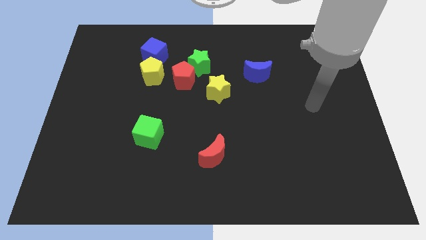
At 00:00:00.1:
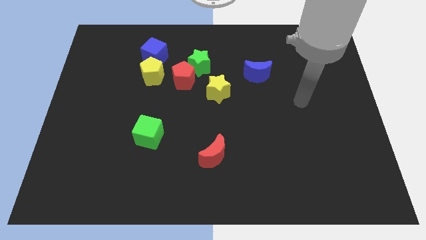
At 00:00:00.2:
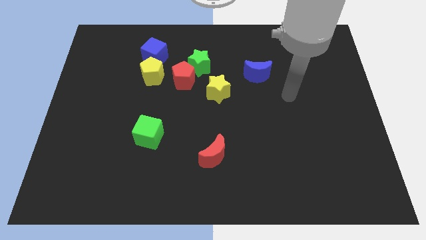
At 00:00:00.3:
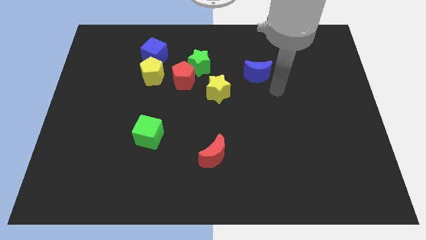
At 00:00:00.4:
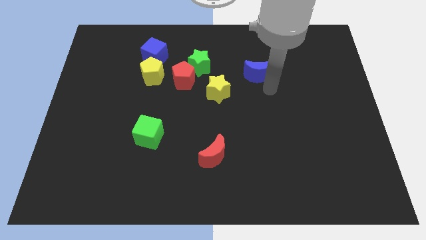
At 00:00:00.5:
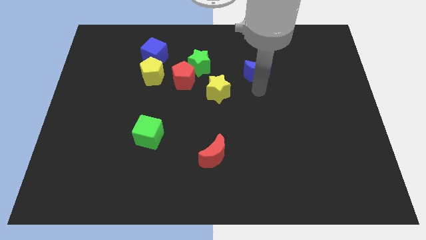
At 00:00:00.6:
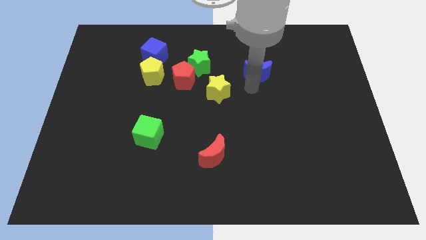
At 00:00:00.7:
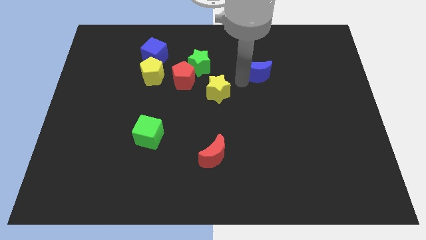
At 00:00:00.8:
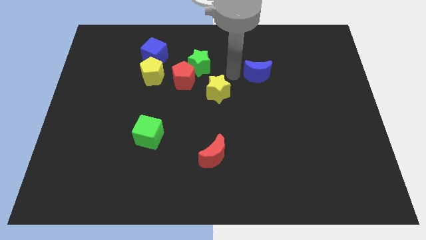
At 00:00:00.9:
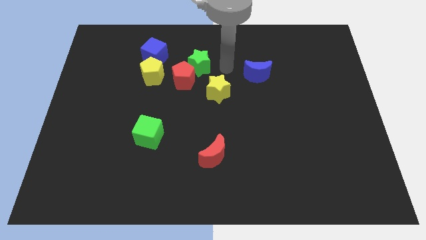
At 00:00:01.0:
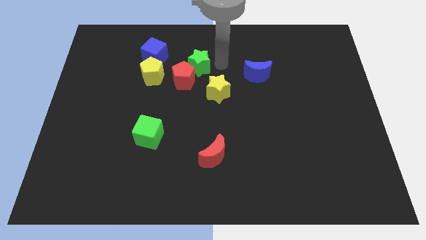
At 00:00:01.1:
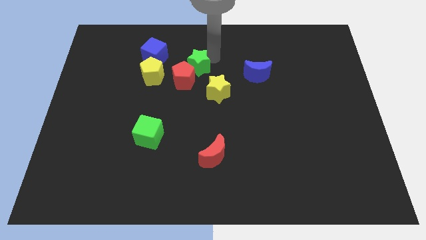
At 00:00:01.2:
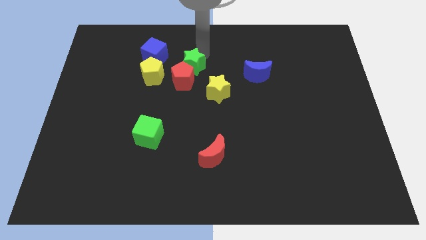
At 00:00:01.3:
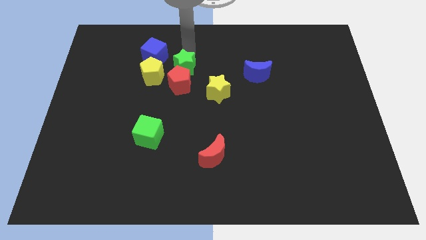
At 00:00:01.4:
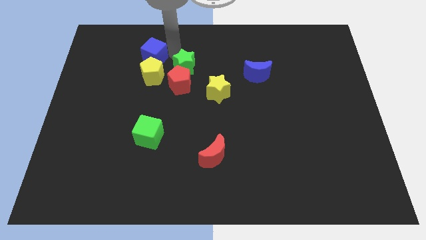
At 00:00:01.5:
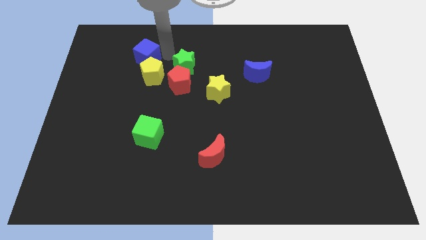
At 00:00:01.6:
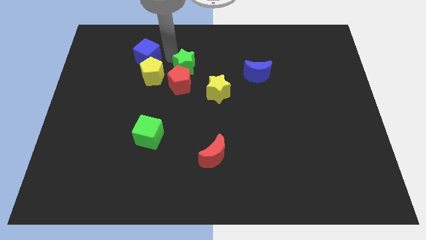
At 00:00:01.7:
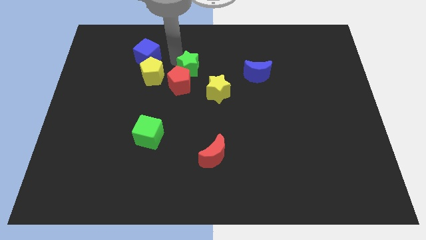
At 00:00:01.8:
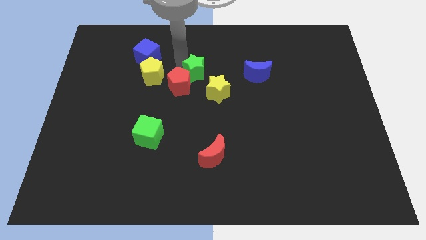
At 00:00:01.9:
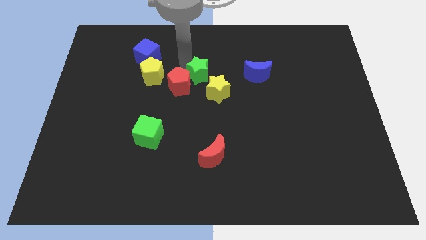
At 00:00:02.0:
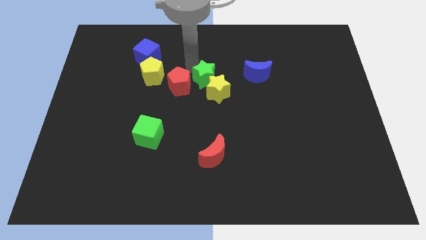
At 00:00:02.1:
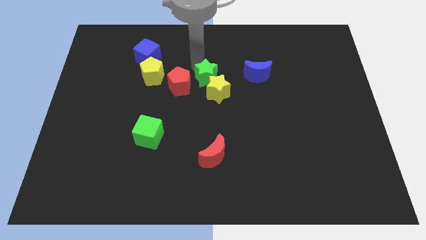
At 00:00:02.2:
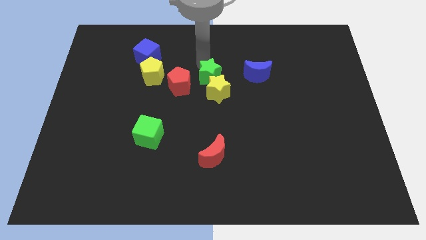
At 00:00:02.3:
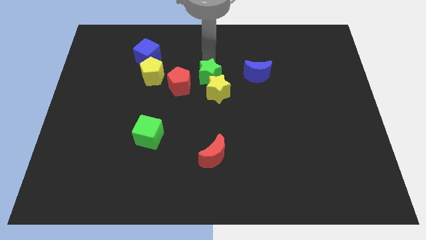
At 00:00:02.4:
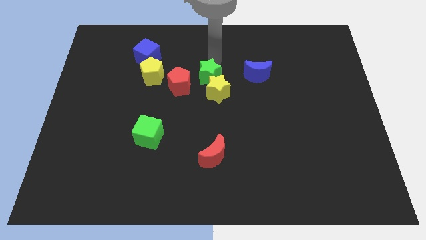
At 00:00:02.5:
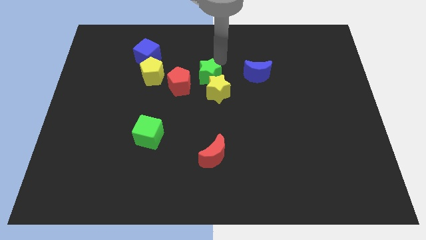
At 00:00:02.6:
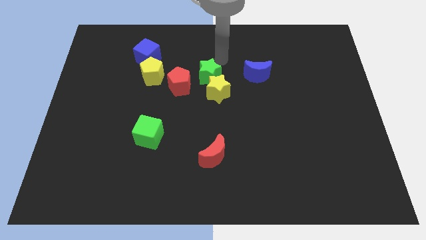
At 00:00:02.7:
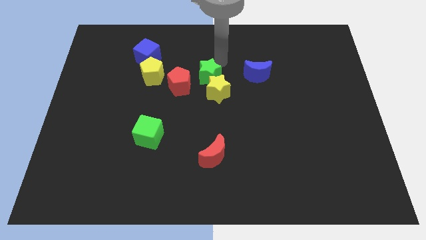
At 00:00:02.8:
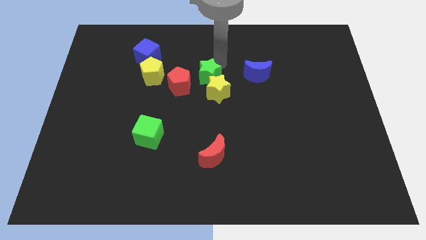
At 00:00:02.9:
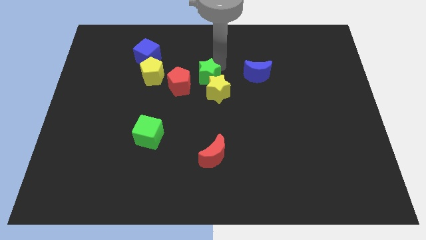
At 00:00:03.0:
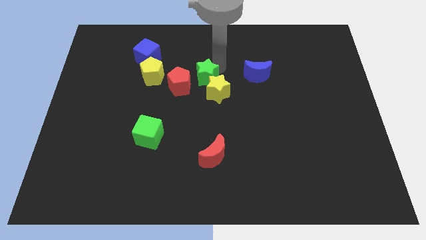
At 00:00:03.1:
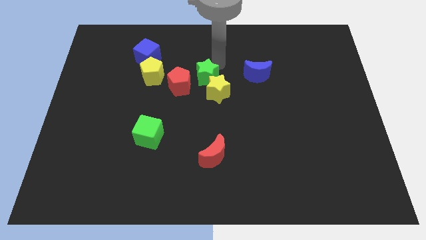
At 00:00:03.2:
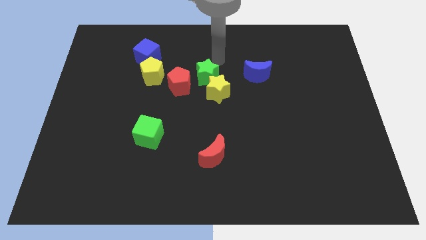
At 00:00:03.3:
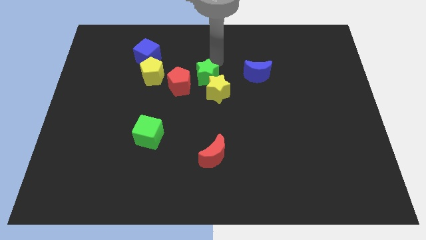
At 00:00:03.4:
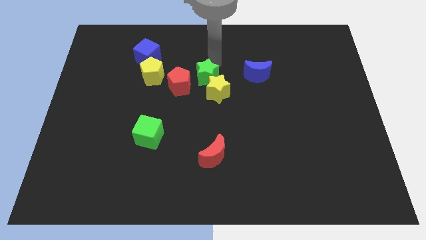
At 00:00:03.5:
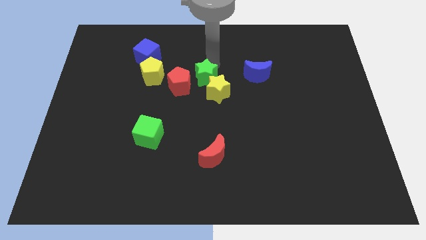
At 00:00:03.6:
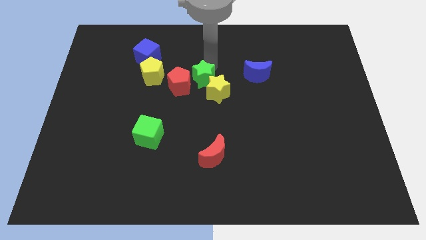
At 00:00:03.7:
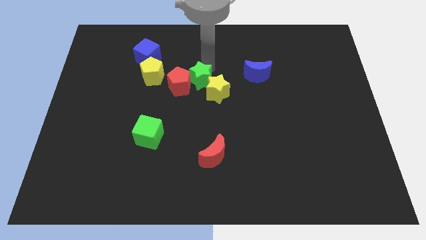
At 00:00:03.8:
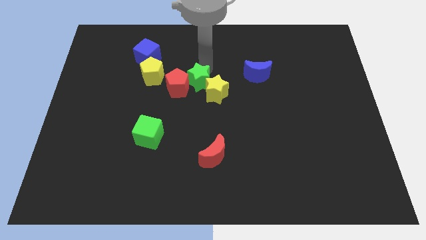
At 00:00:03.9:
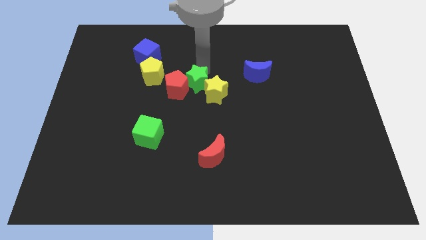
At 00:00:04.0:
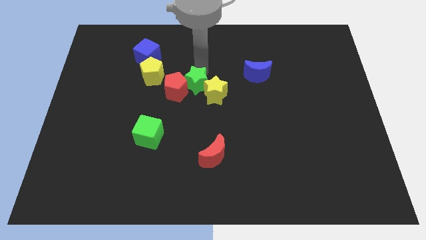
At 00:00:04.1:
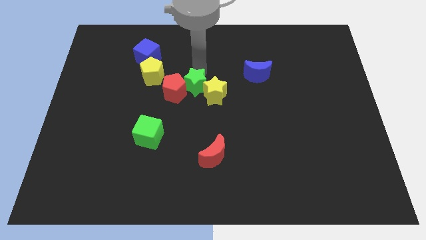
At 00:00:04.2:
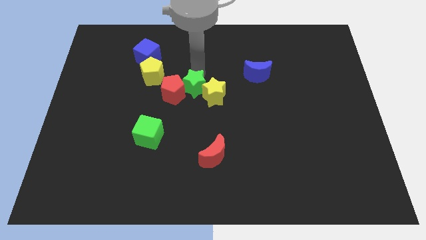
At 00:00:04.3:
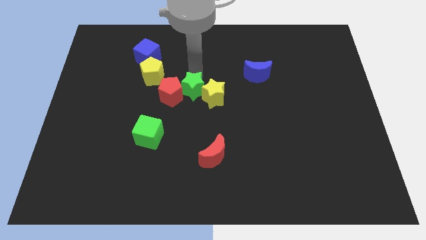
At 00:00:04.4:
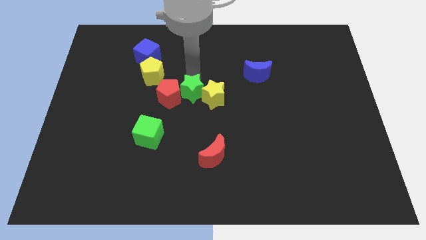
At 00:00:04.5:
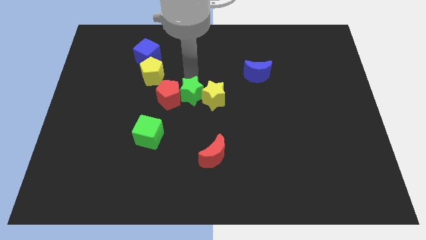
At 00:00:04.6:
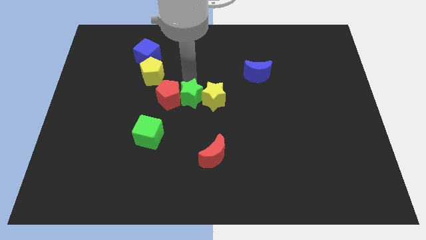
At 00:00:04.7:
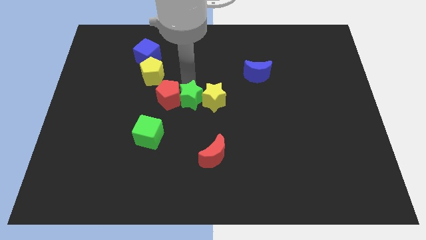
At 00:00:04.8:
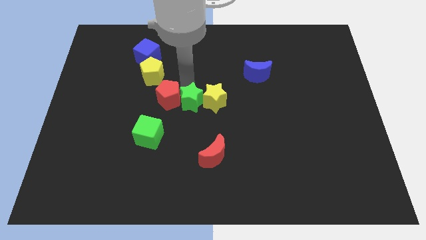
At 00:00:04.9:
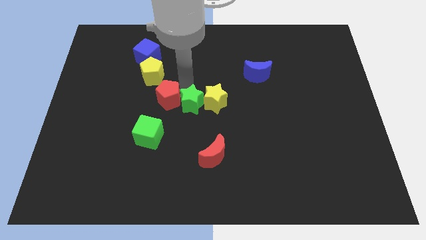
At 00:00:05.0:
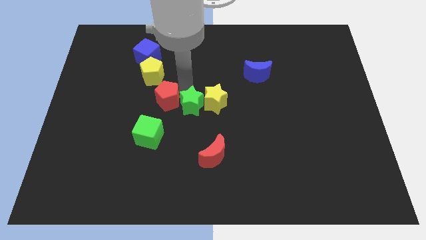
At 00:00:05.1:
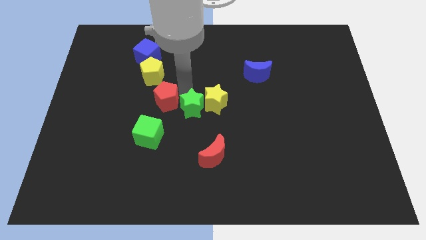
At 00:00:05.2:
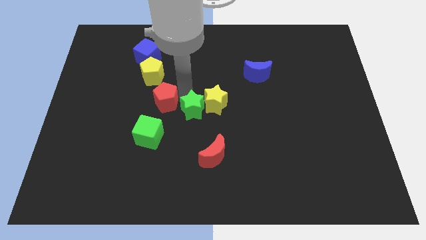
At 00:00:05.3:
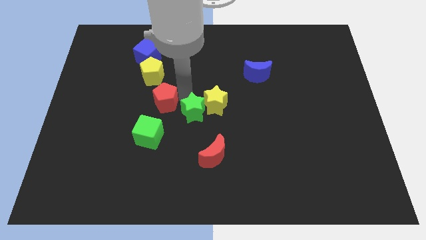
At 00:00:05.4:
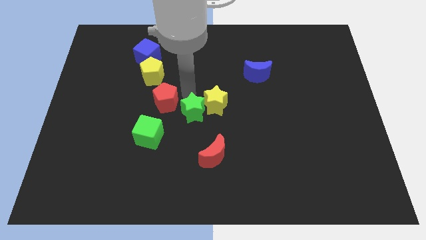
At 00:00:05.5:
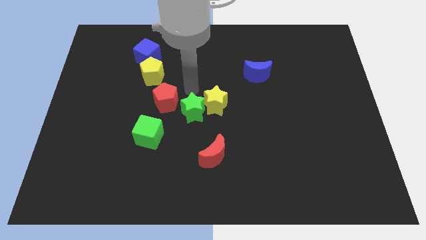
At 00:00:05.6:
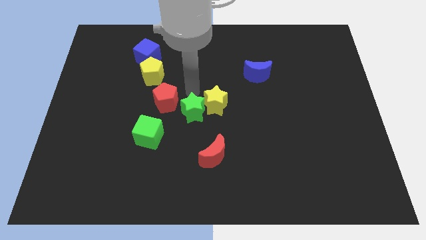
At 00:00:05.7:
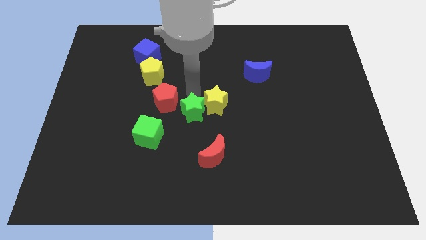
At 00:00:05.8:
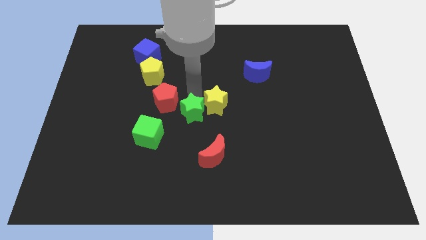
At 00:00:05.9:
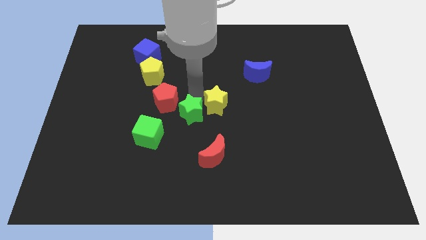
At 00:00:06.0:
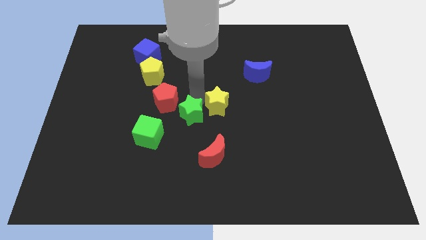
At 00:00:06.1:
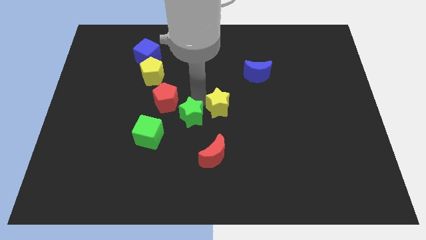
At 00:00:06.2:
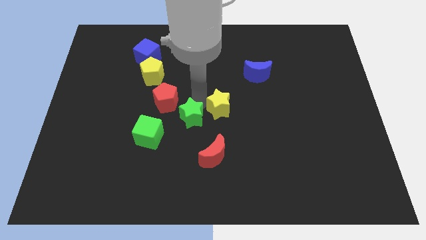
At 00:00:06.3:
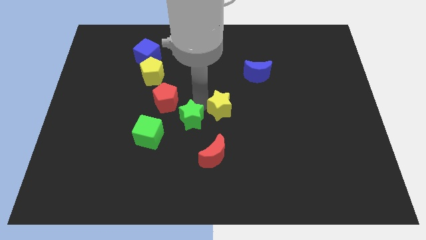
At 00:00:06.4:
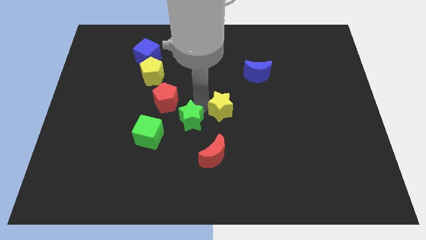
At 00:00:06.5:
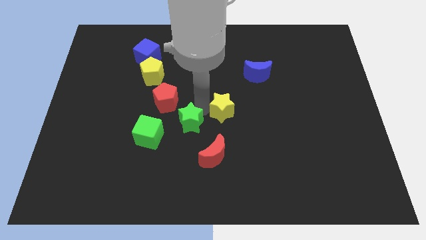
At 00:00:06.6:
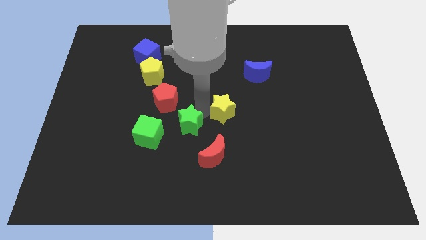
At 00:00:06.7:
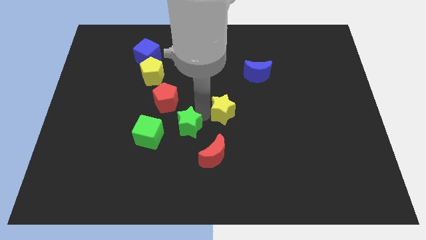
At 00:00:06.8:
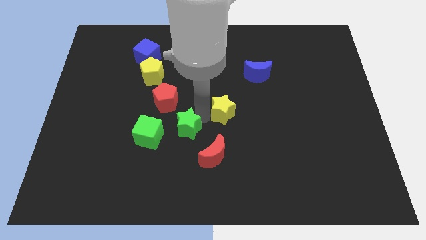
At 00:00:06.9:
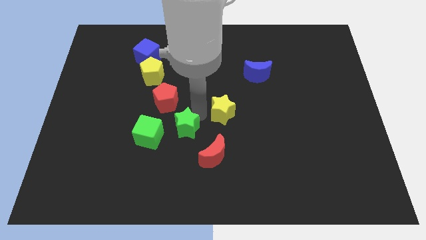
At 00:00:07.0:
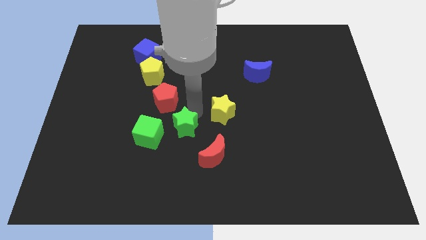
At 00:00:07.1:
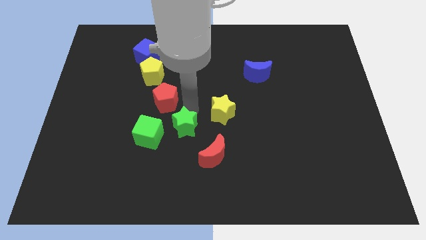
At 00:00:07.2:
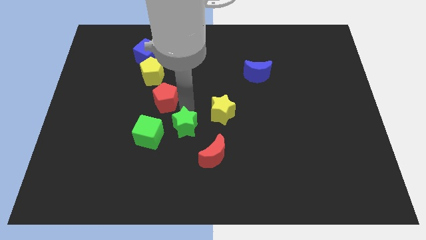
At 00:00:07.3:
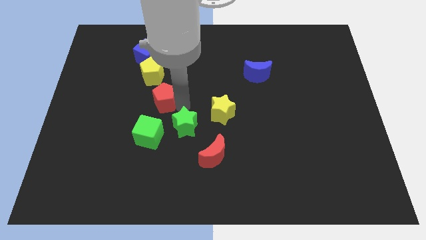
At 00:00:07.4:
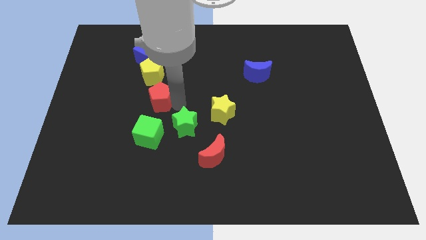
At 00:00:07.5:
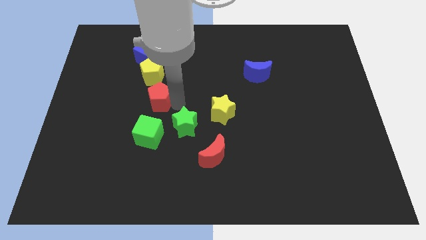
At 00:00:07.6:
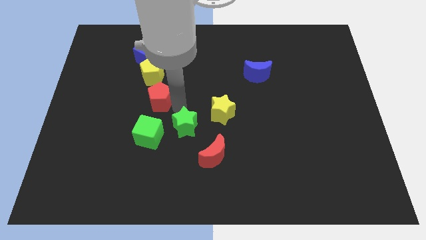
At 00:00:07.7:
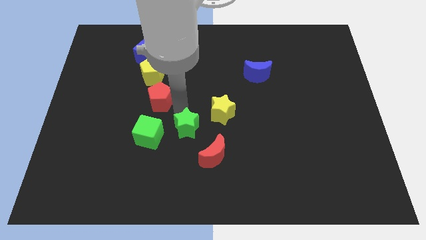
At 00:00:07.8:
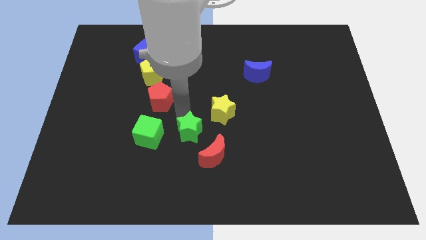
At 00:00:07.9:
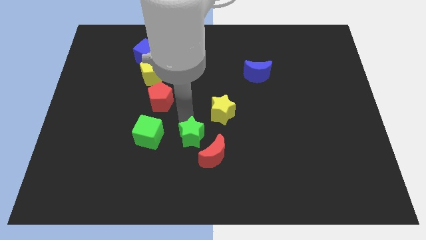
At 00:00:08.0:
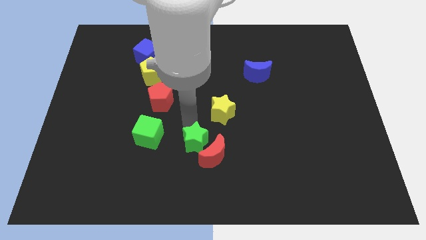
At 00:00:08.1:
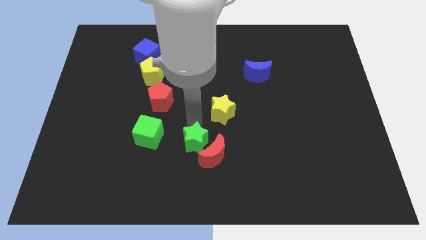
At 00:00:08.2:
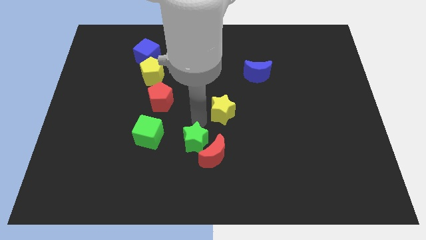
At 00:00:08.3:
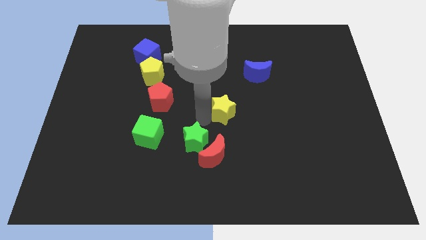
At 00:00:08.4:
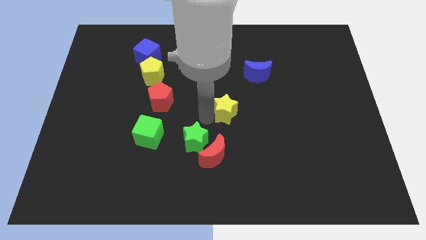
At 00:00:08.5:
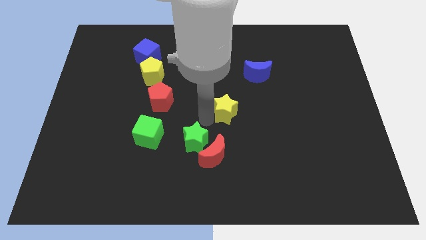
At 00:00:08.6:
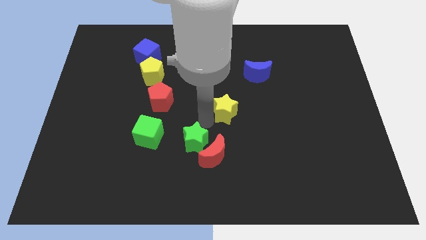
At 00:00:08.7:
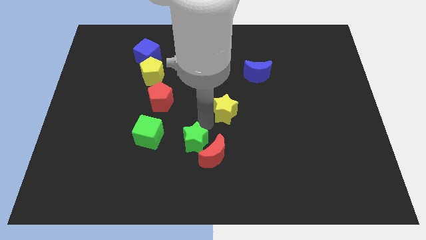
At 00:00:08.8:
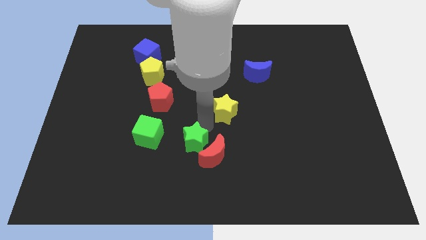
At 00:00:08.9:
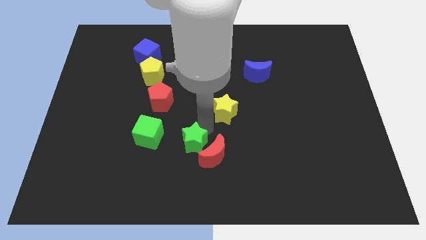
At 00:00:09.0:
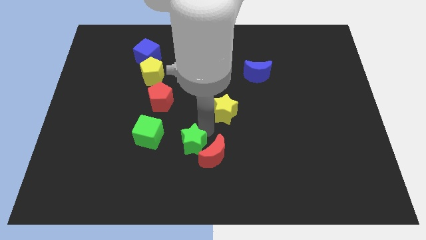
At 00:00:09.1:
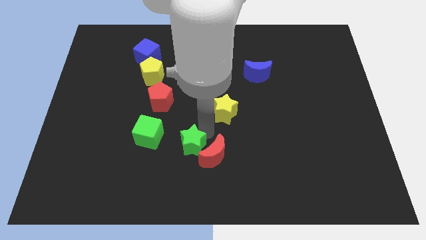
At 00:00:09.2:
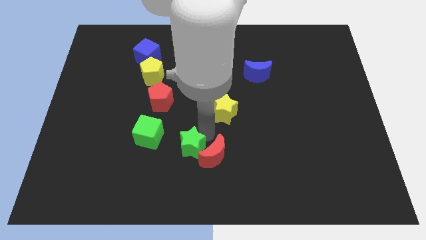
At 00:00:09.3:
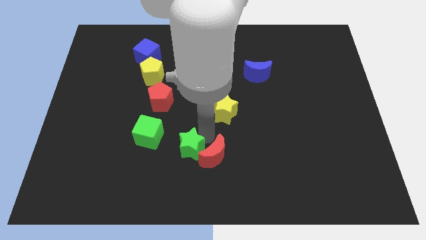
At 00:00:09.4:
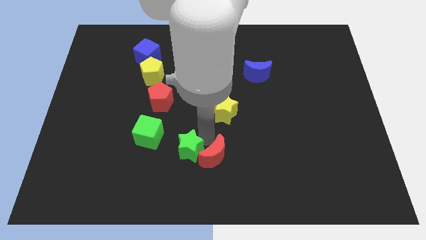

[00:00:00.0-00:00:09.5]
put the green star to the bottom left of the red moon
